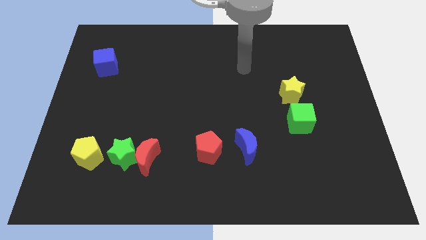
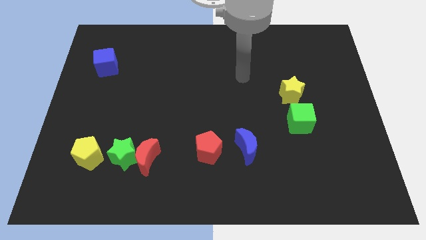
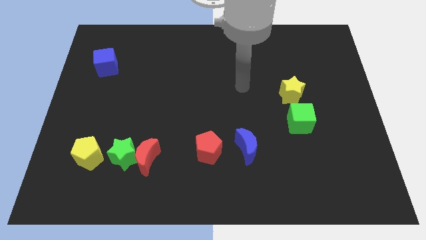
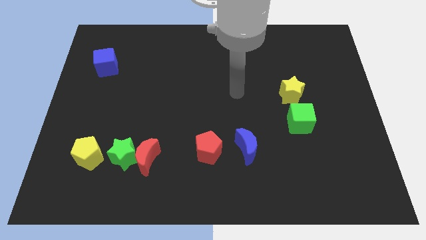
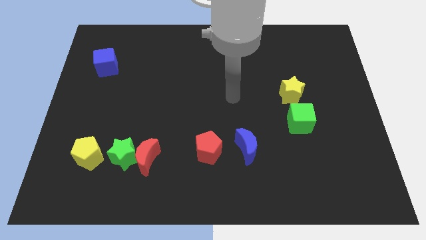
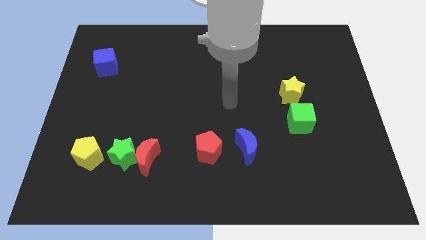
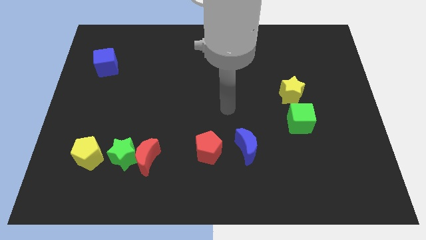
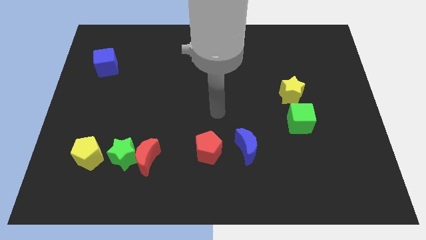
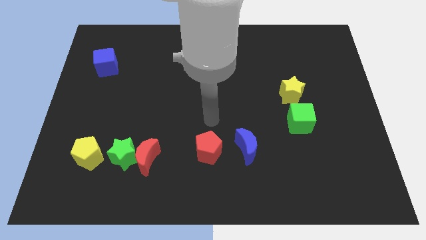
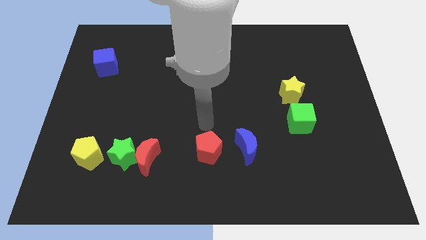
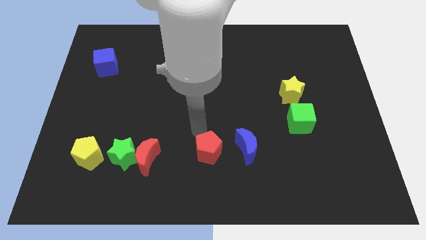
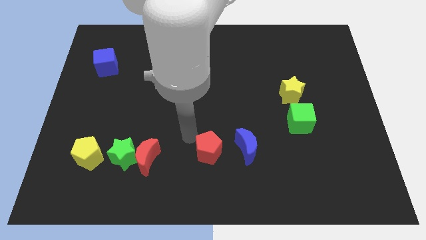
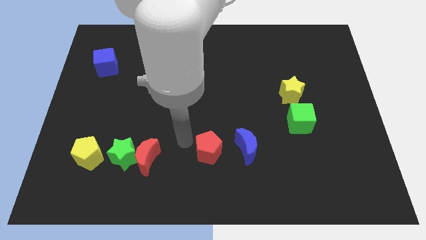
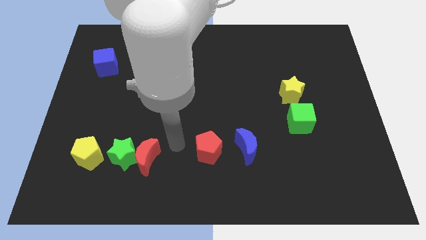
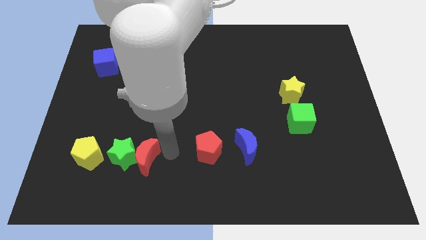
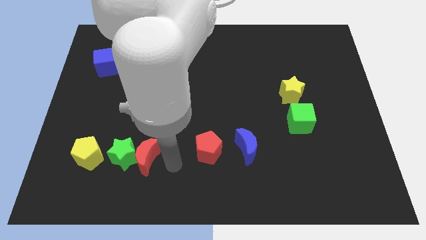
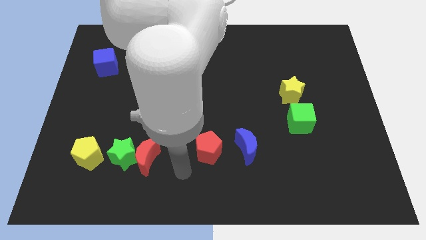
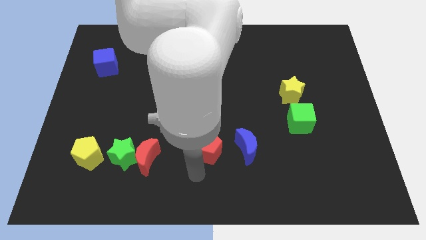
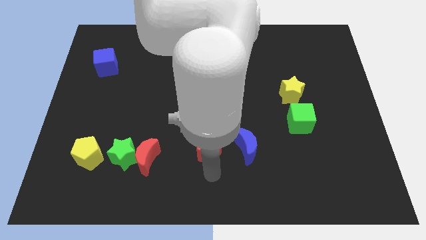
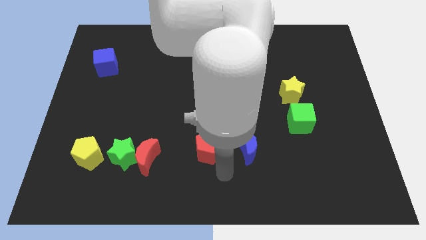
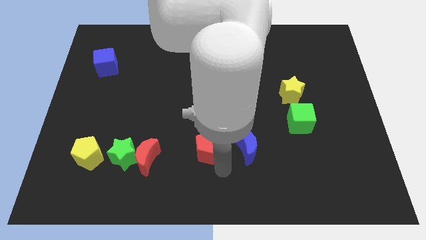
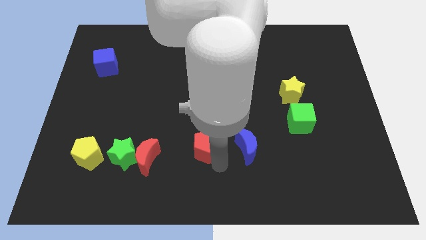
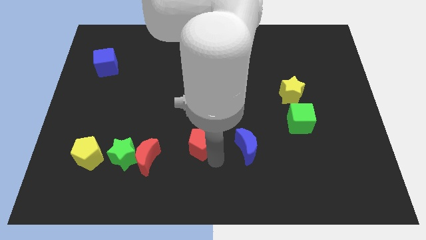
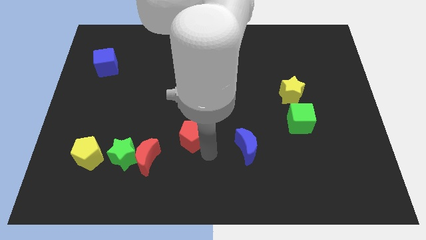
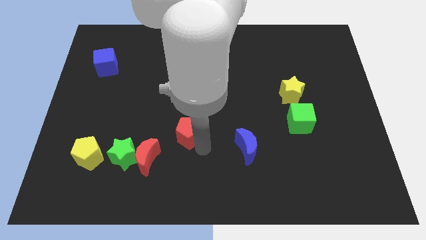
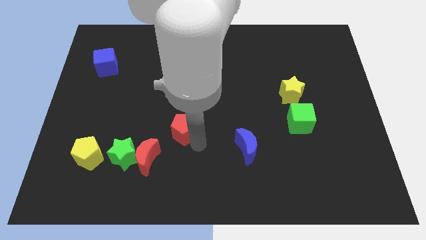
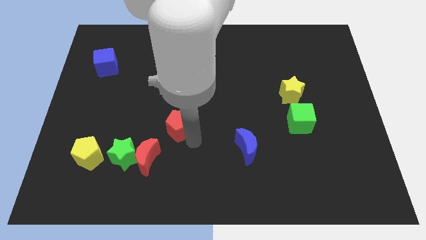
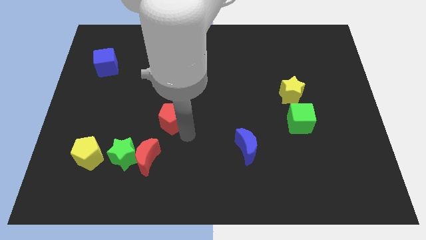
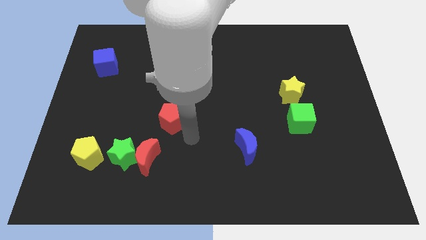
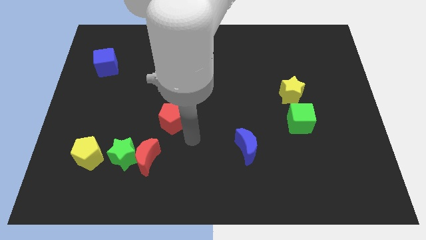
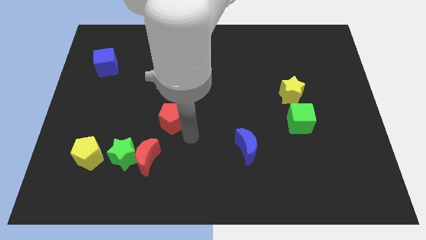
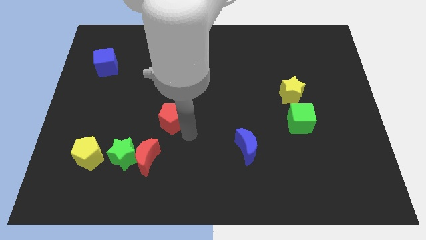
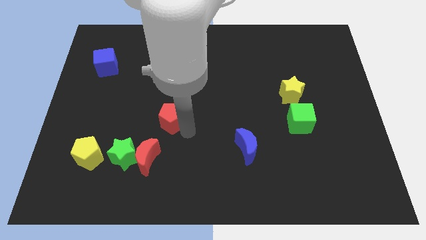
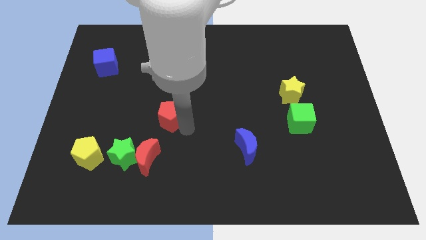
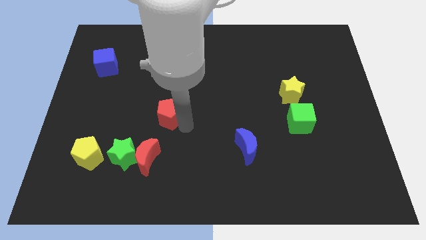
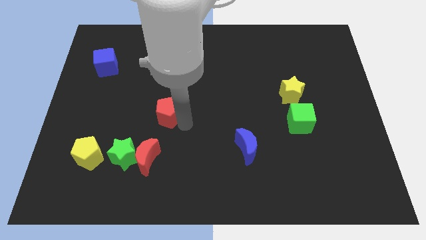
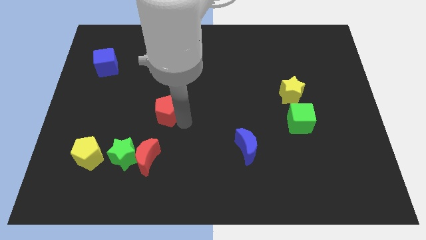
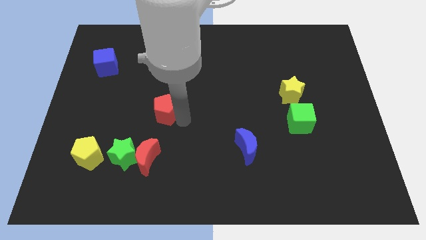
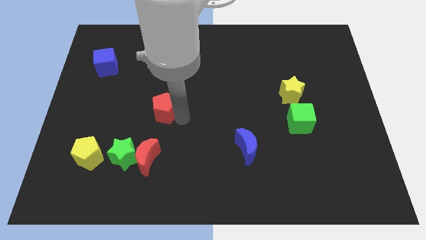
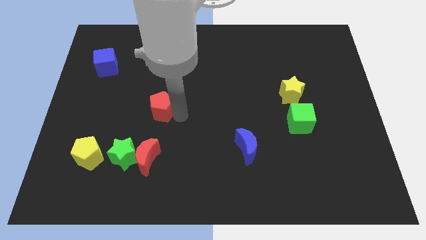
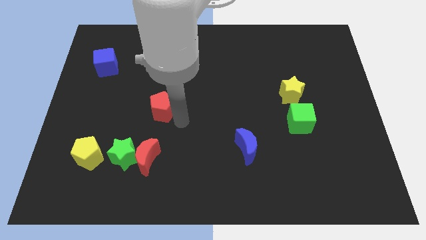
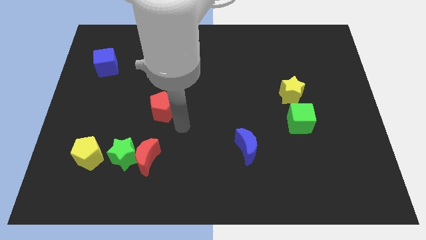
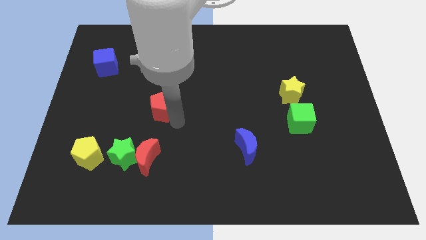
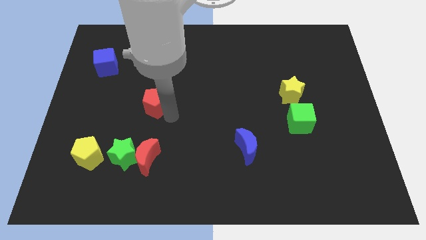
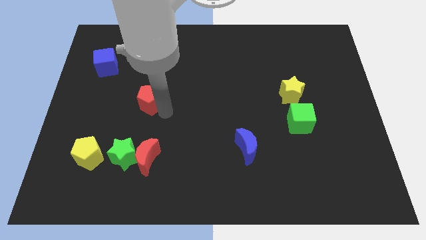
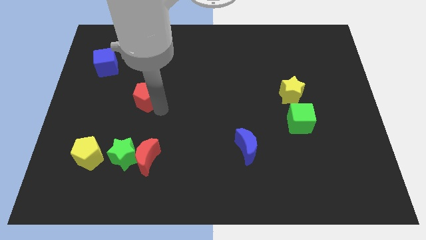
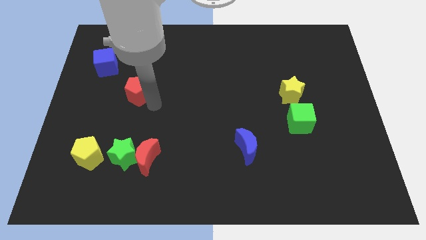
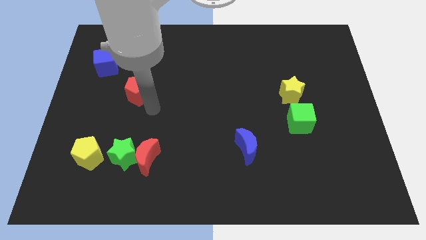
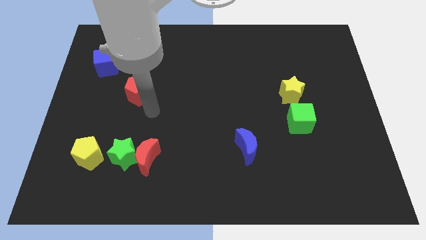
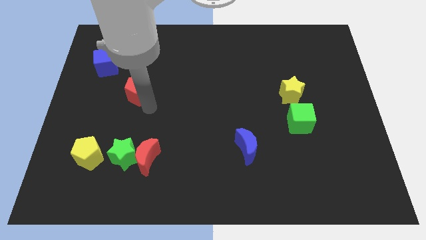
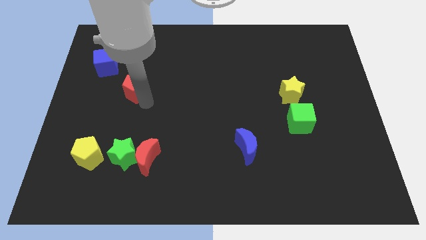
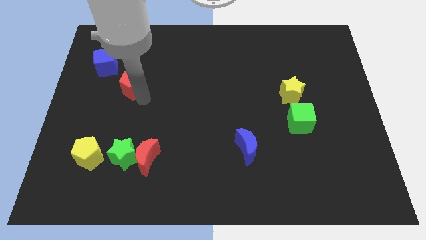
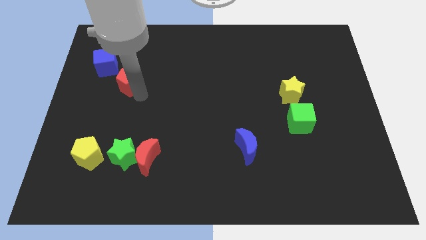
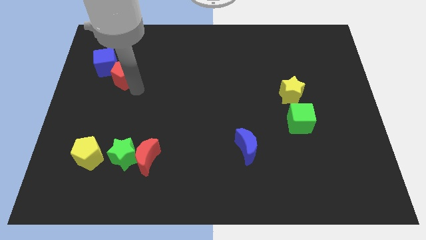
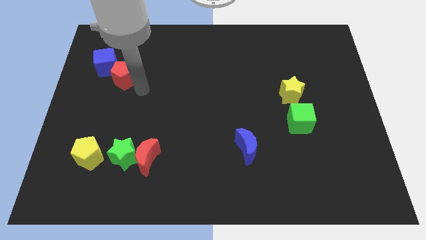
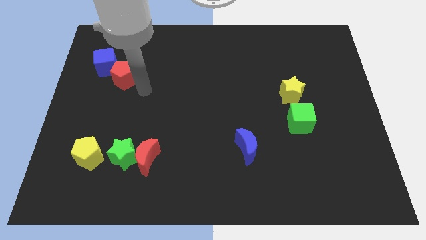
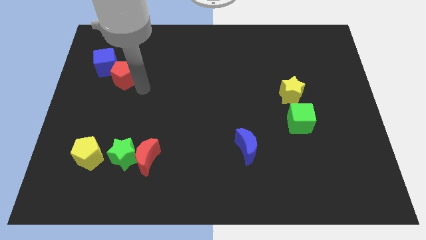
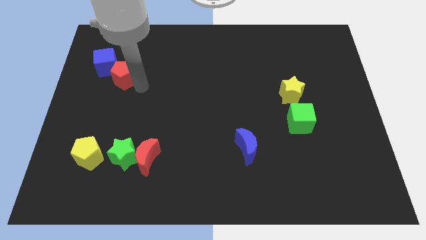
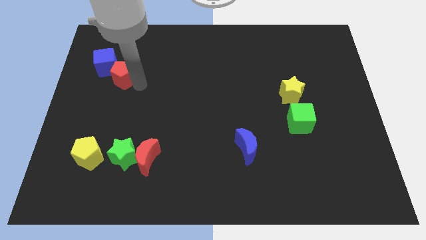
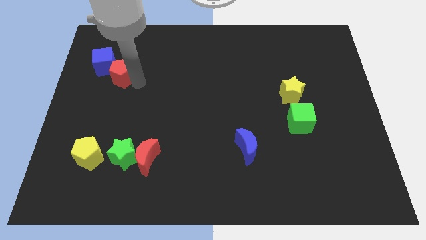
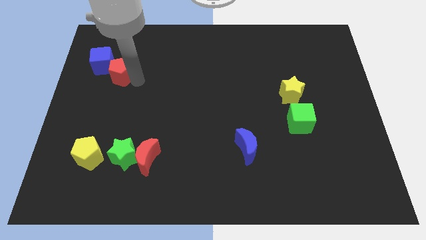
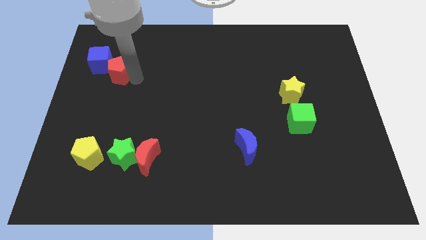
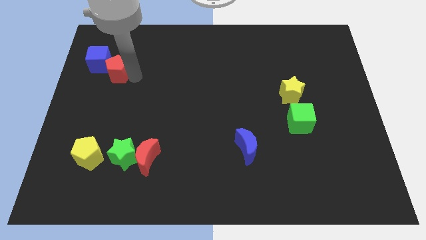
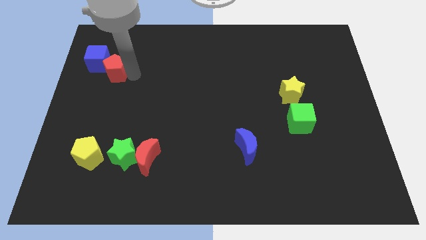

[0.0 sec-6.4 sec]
move the red pentagon next to the blue cube

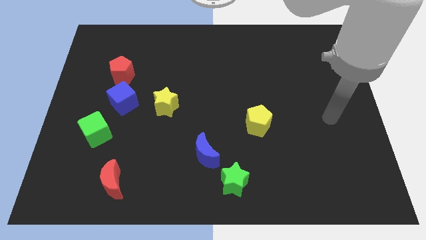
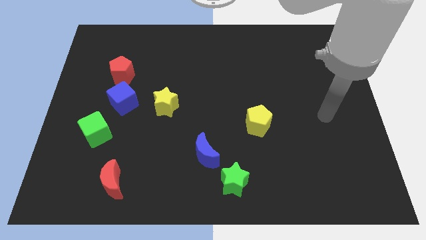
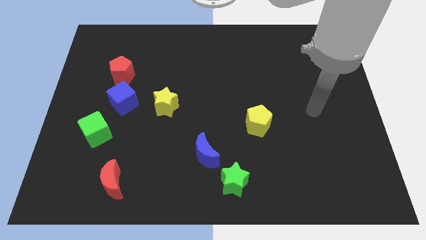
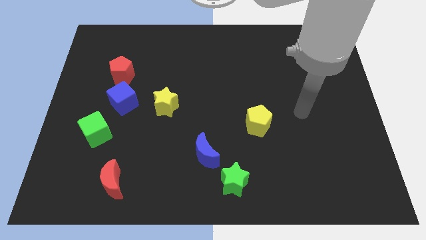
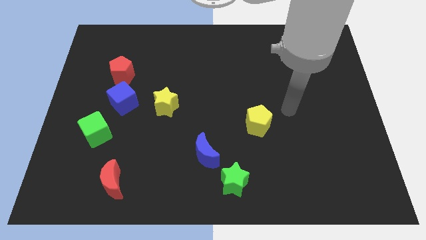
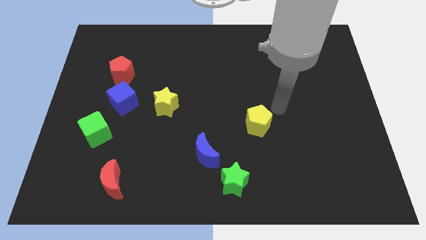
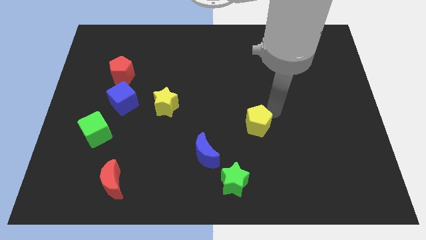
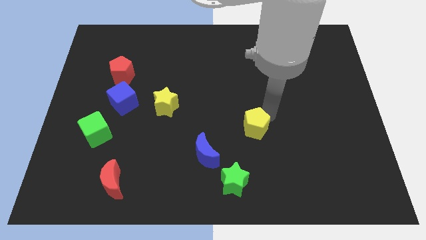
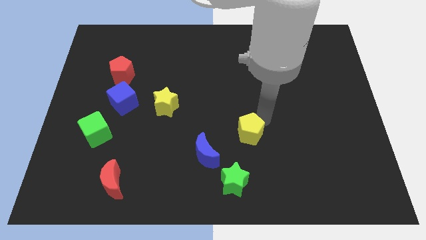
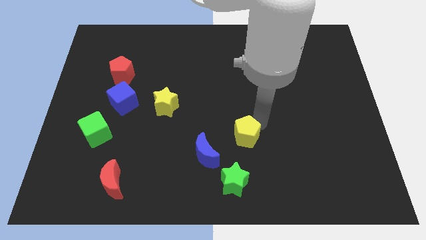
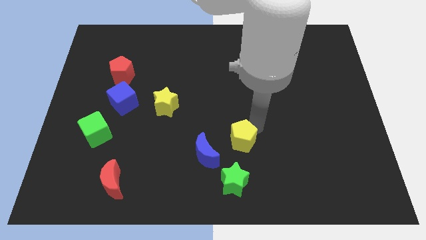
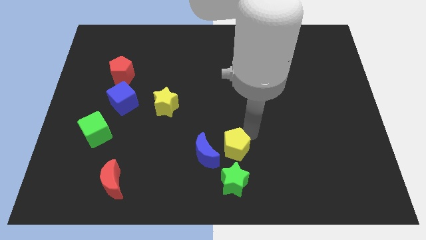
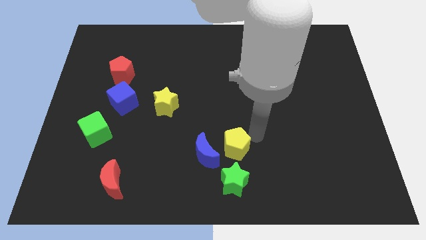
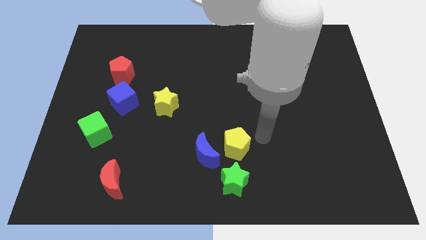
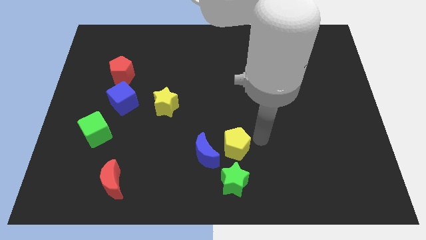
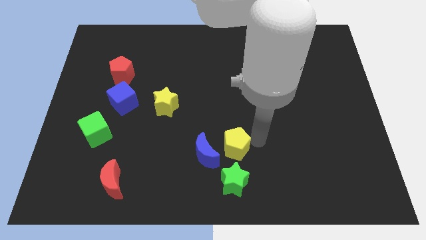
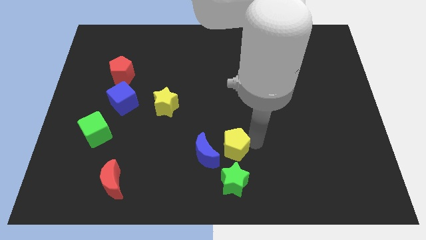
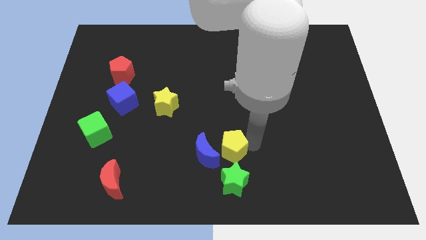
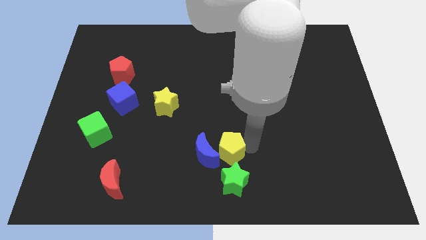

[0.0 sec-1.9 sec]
move the yellow pentagon close to the blue moon
